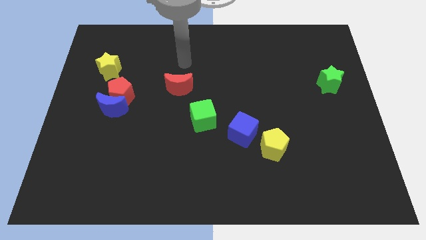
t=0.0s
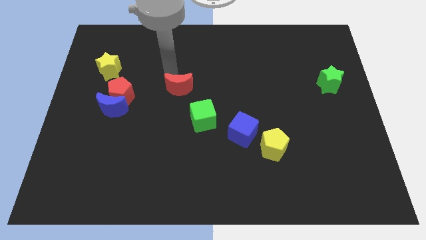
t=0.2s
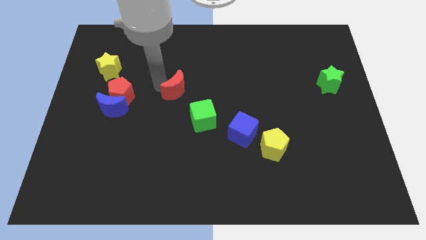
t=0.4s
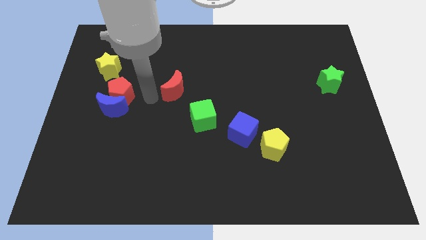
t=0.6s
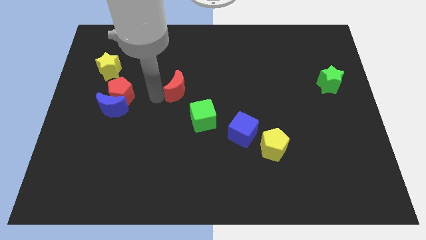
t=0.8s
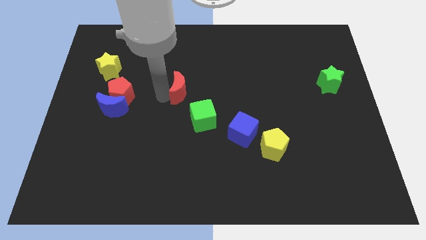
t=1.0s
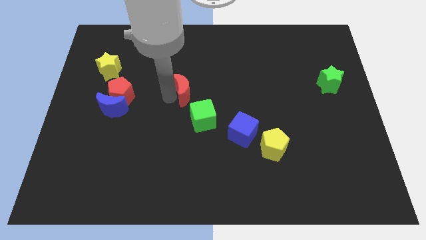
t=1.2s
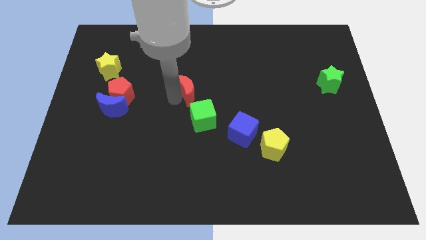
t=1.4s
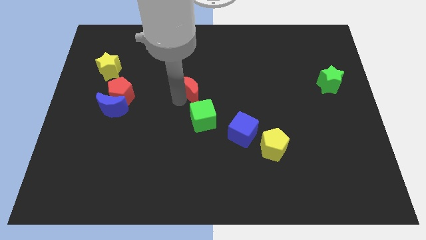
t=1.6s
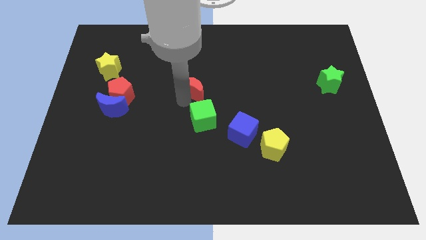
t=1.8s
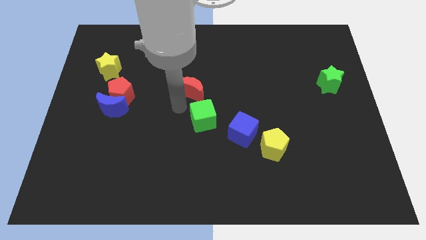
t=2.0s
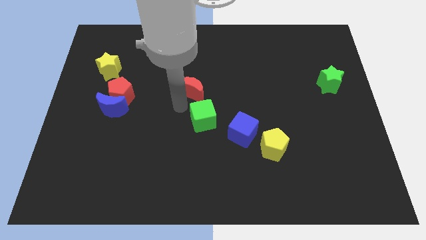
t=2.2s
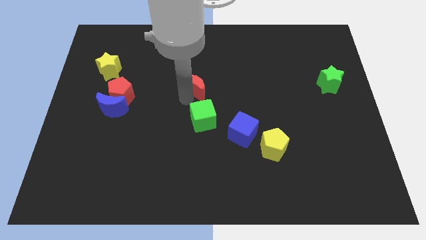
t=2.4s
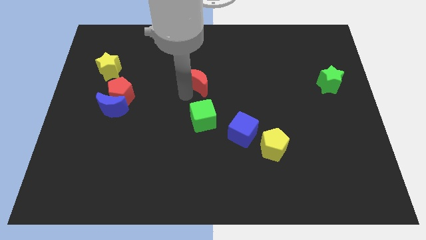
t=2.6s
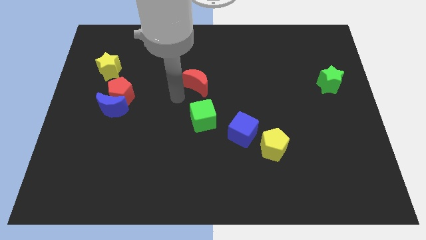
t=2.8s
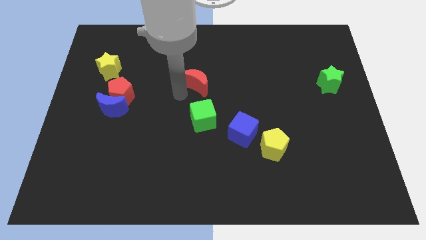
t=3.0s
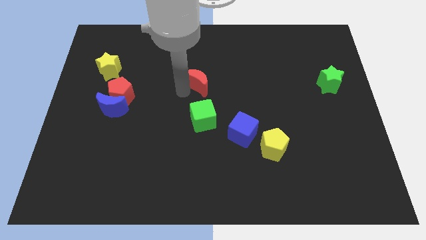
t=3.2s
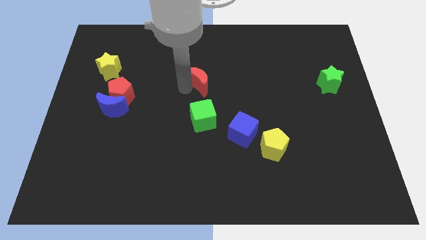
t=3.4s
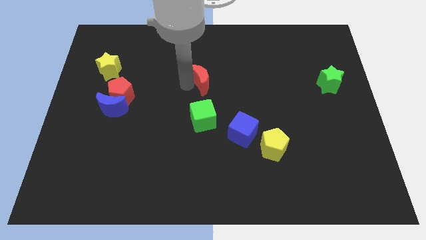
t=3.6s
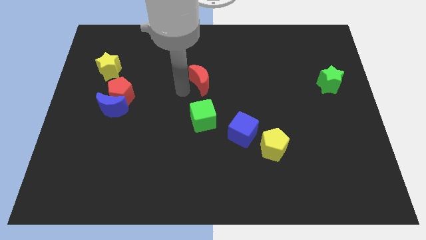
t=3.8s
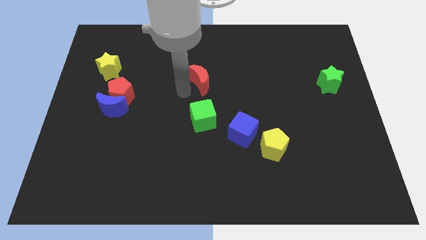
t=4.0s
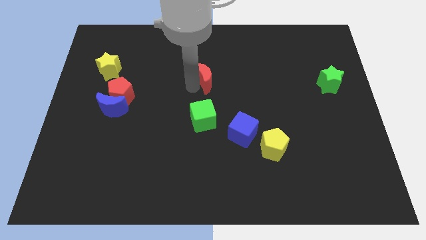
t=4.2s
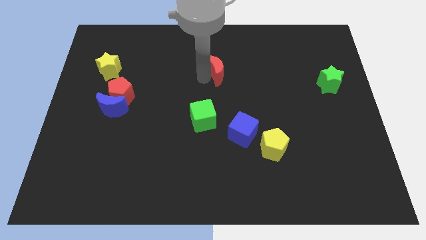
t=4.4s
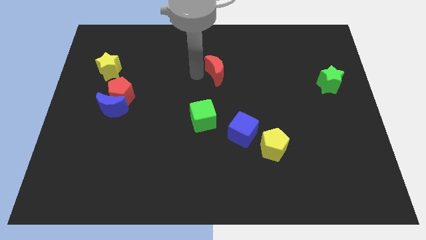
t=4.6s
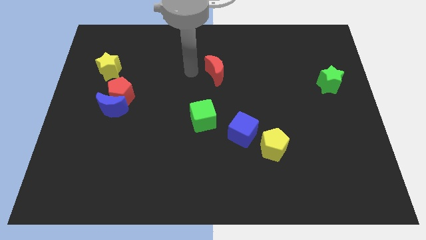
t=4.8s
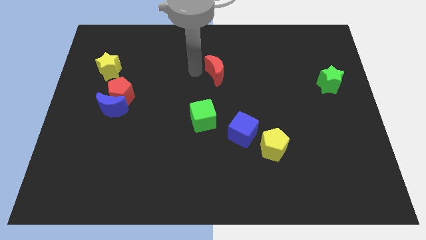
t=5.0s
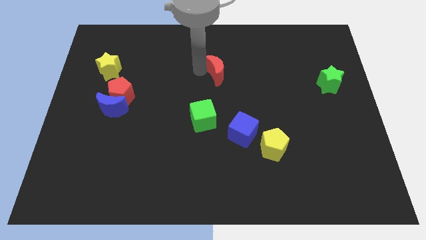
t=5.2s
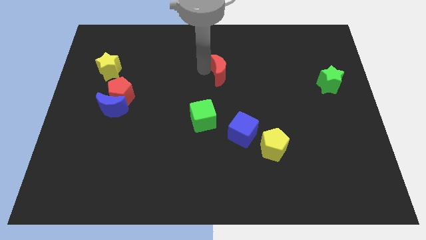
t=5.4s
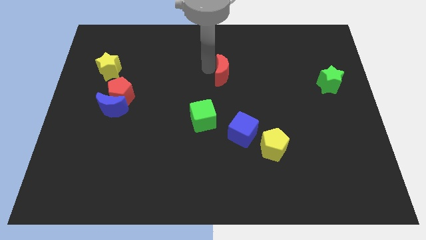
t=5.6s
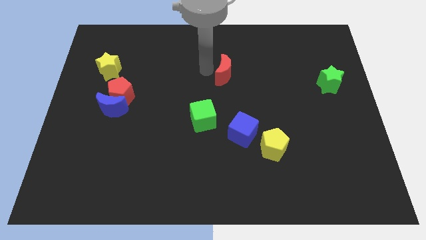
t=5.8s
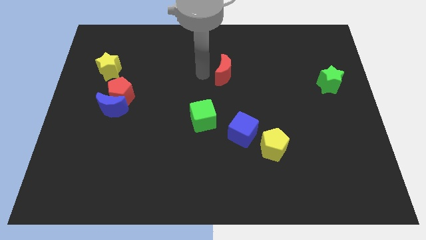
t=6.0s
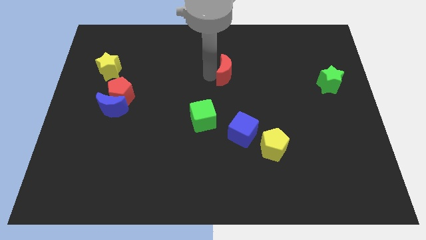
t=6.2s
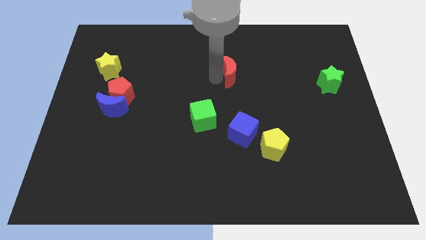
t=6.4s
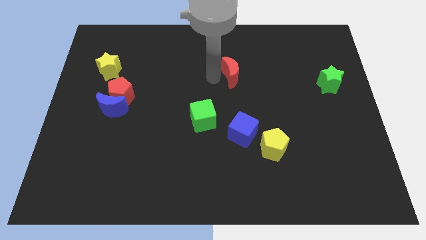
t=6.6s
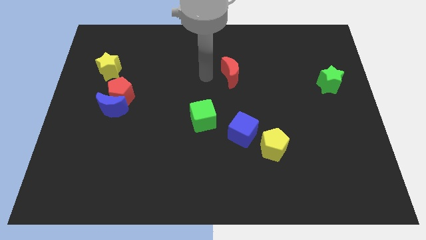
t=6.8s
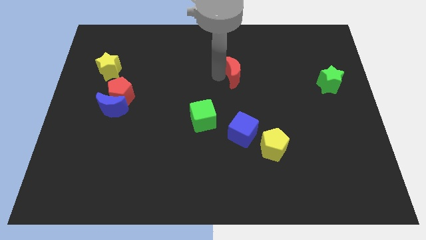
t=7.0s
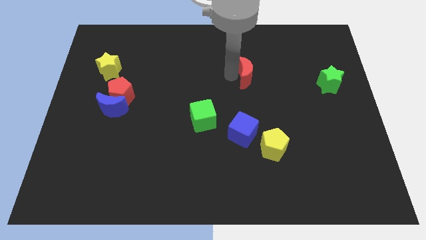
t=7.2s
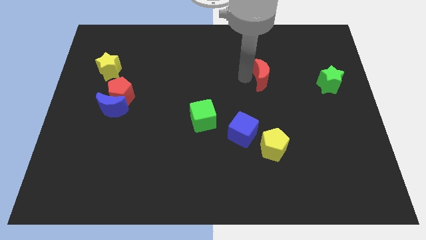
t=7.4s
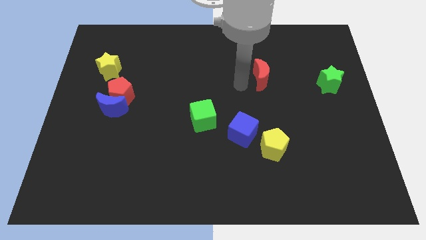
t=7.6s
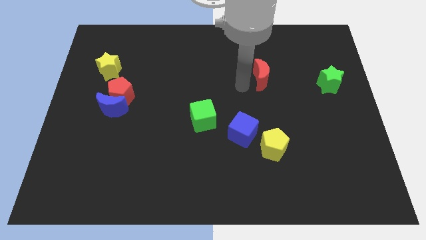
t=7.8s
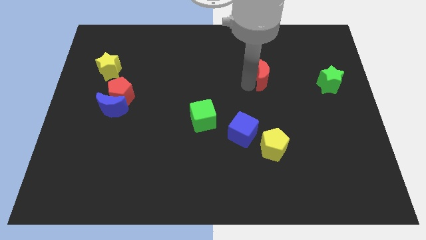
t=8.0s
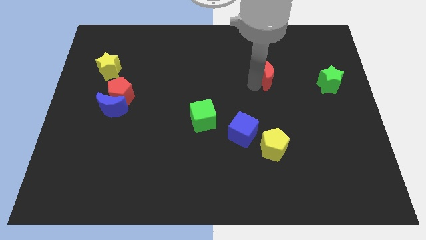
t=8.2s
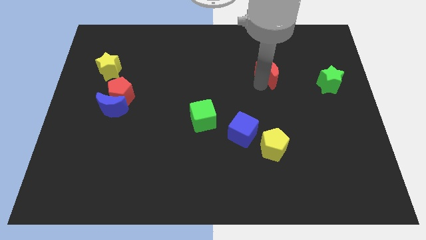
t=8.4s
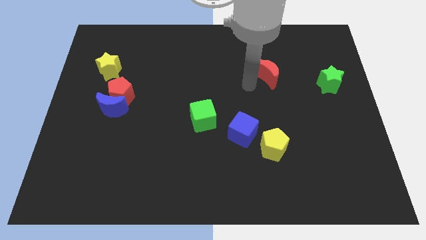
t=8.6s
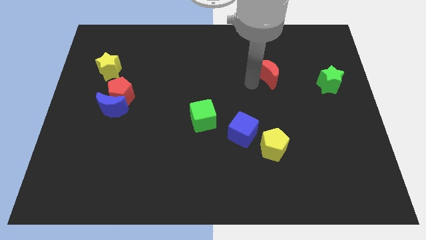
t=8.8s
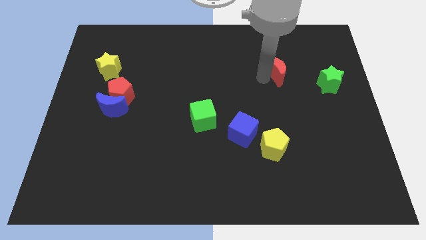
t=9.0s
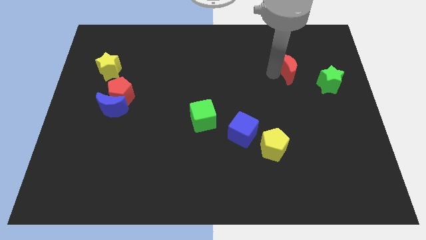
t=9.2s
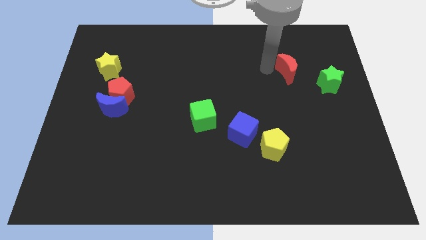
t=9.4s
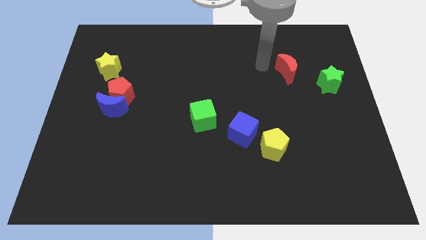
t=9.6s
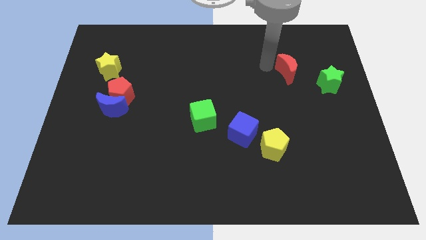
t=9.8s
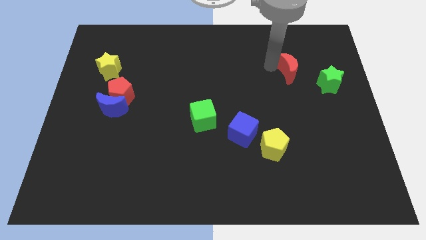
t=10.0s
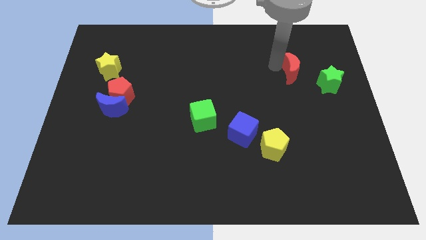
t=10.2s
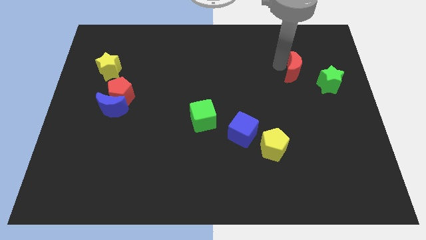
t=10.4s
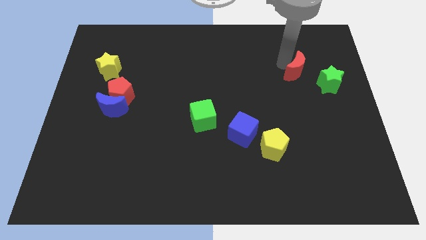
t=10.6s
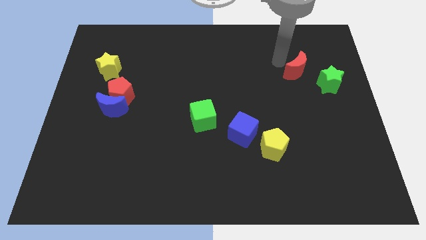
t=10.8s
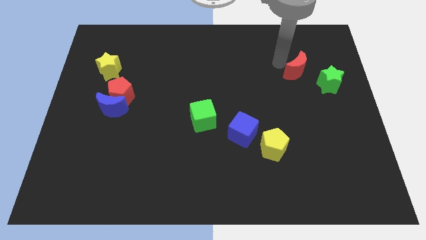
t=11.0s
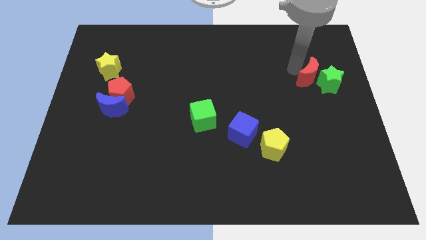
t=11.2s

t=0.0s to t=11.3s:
put the red moon towards the green star

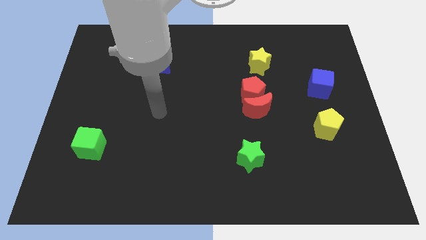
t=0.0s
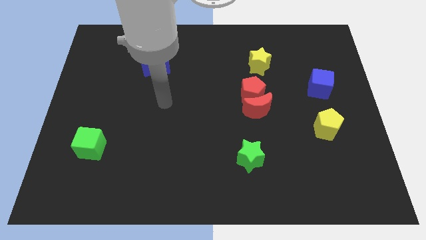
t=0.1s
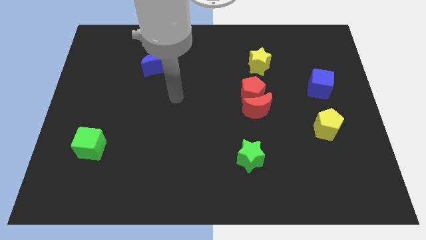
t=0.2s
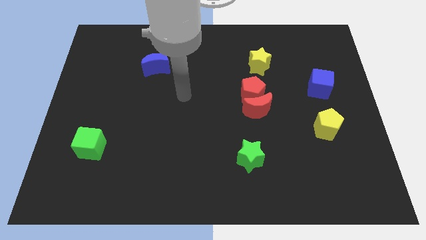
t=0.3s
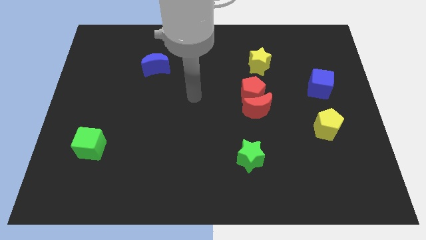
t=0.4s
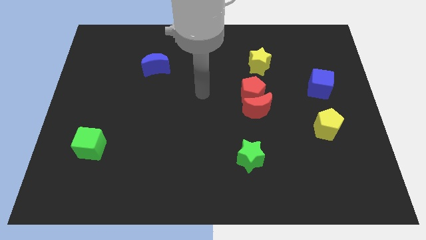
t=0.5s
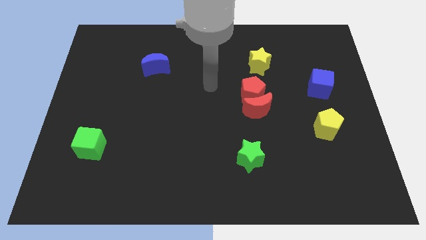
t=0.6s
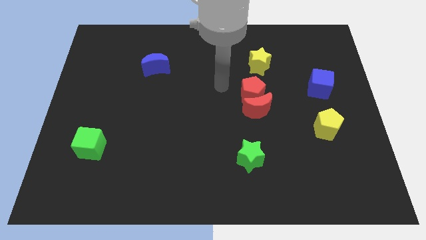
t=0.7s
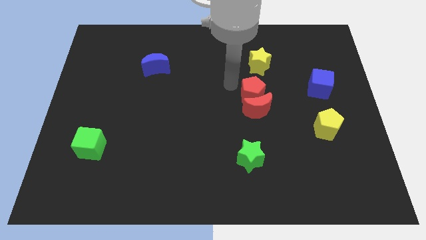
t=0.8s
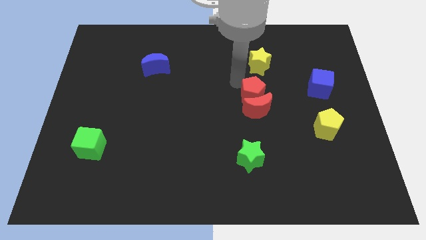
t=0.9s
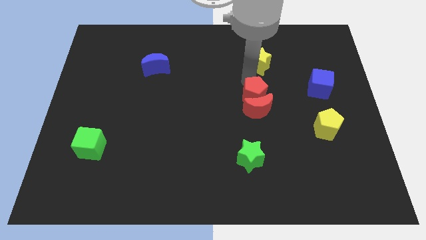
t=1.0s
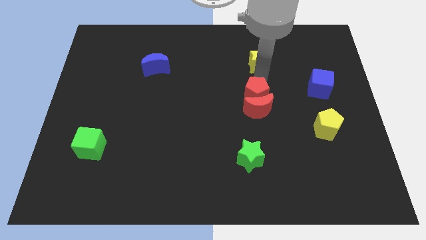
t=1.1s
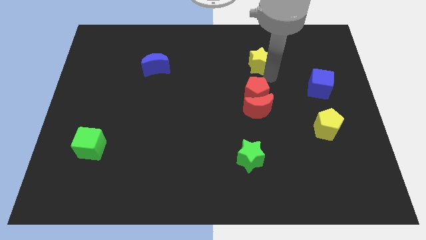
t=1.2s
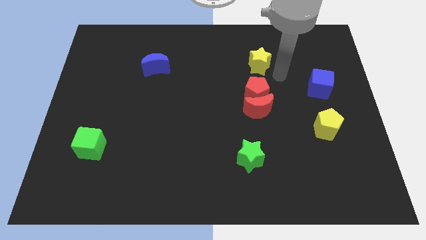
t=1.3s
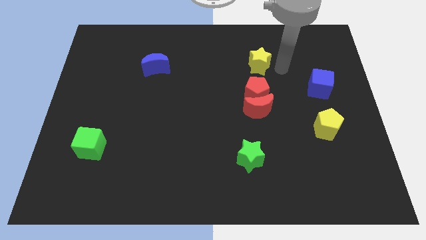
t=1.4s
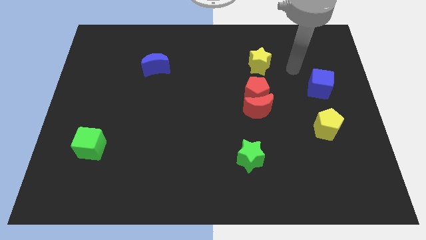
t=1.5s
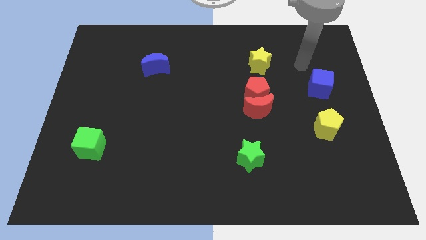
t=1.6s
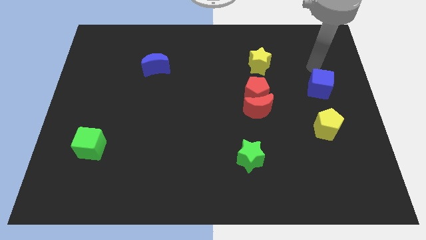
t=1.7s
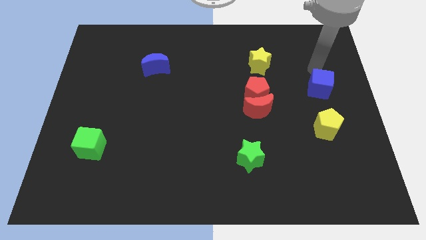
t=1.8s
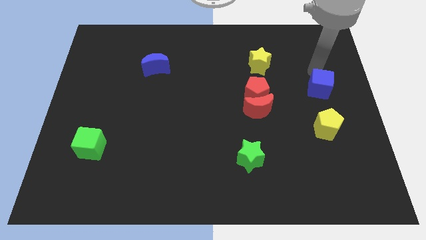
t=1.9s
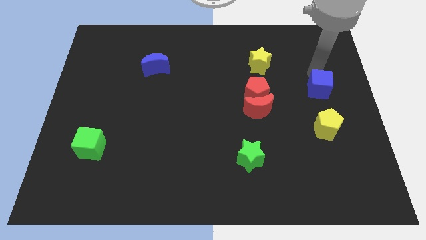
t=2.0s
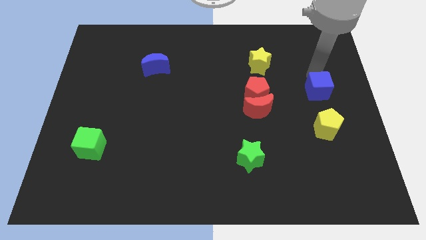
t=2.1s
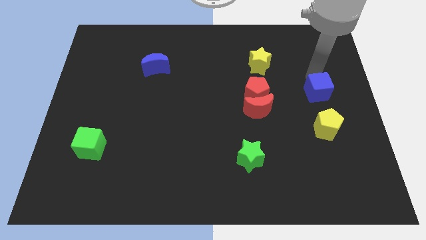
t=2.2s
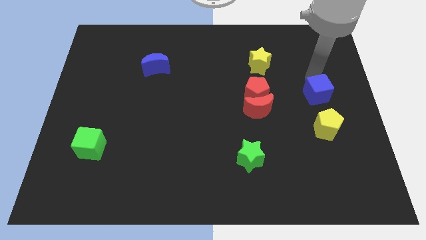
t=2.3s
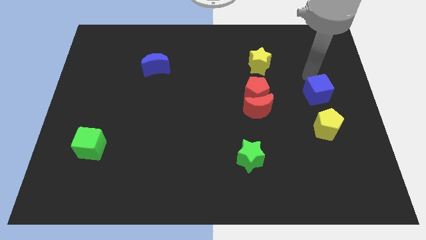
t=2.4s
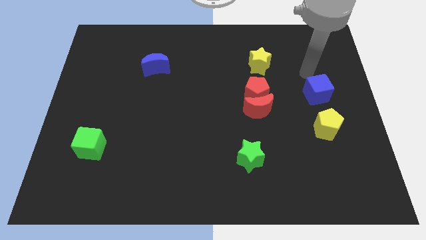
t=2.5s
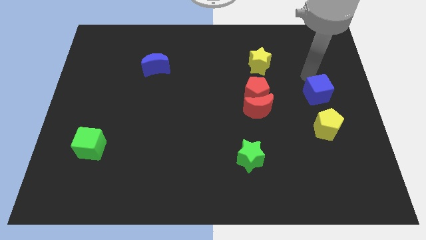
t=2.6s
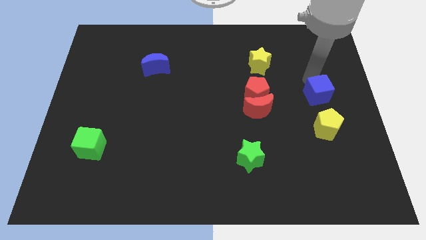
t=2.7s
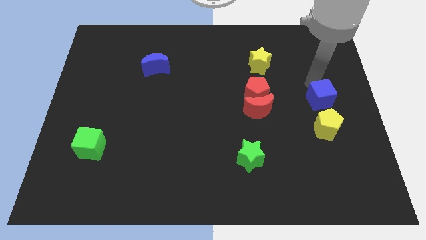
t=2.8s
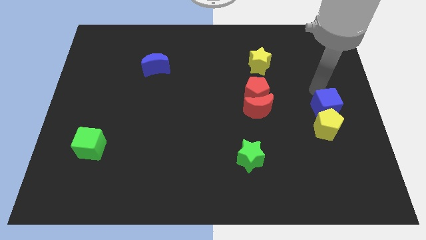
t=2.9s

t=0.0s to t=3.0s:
push the blue cube towards the yellow pentagon
